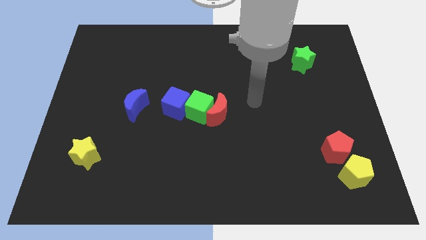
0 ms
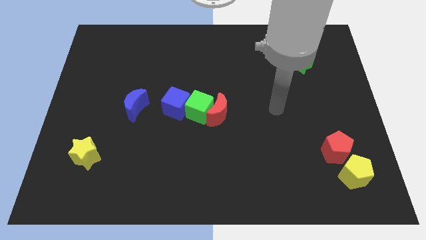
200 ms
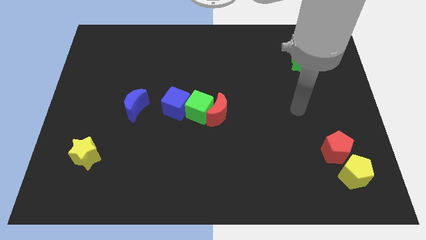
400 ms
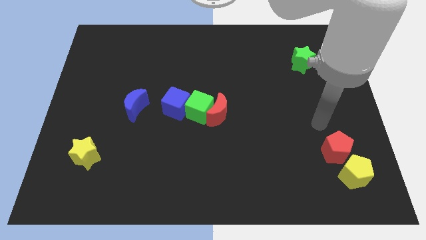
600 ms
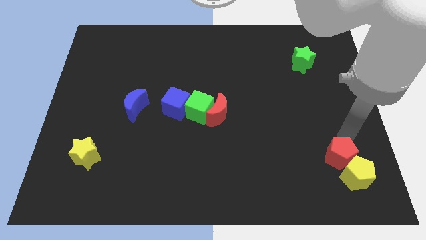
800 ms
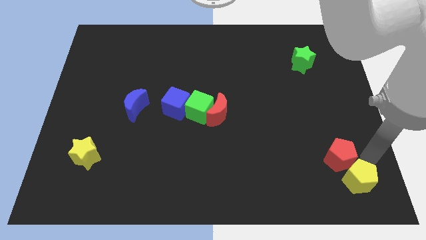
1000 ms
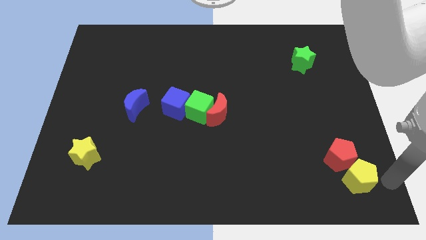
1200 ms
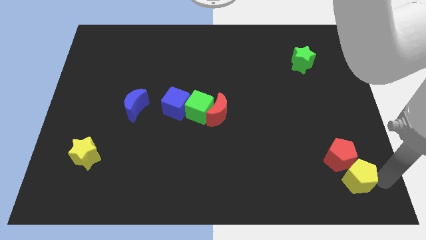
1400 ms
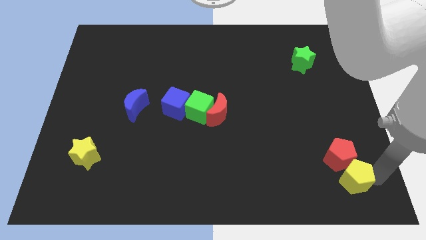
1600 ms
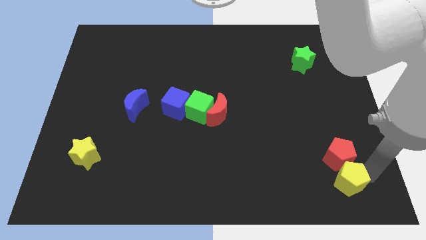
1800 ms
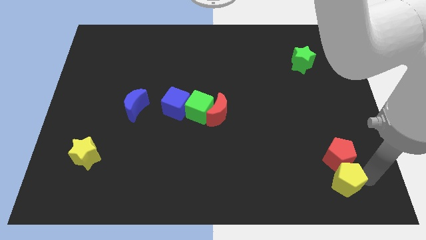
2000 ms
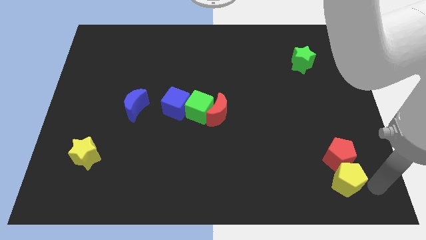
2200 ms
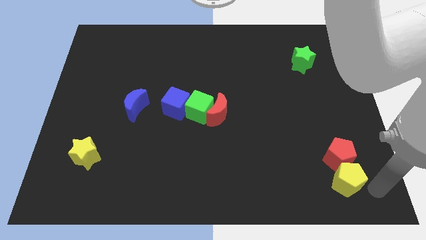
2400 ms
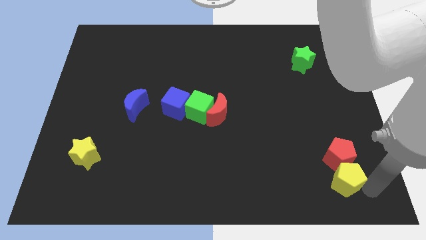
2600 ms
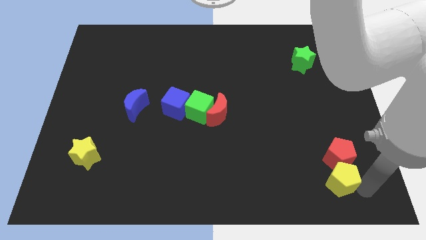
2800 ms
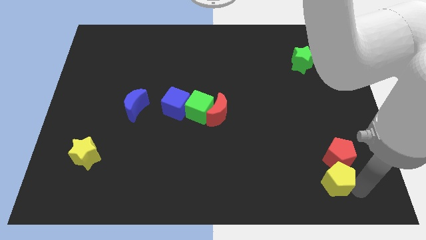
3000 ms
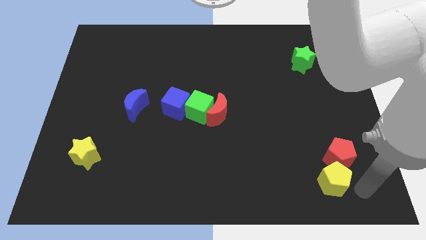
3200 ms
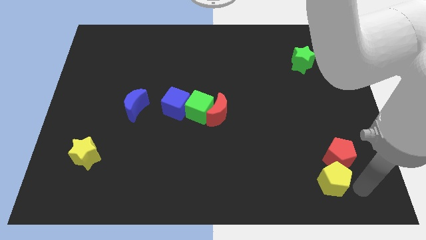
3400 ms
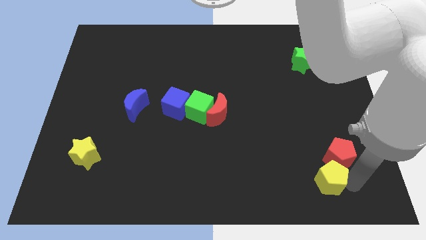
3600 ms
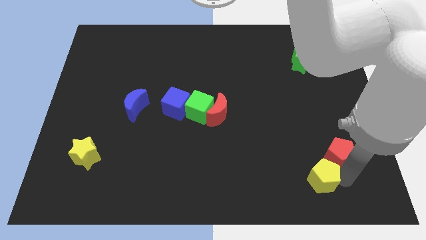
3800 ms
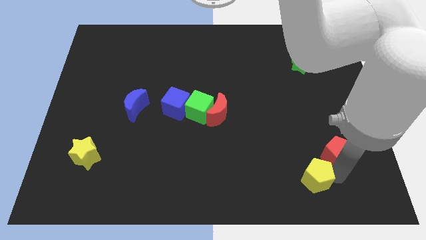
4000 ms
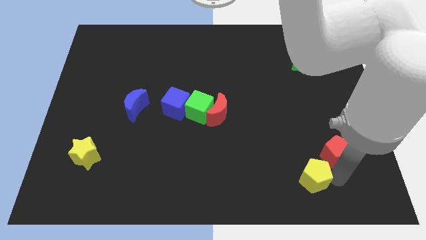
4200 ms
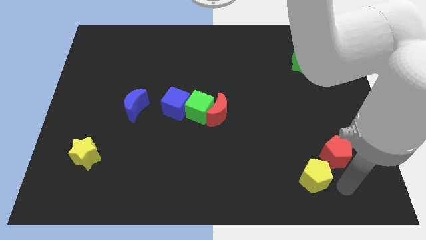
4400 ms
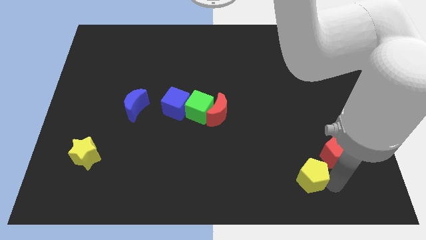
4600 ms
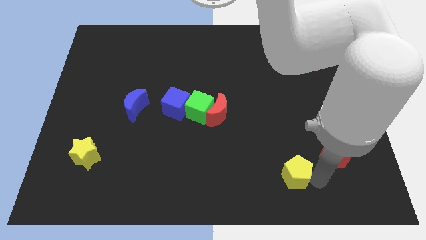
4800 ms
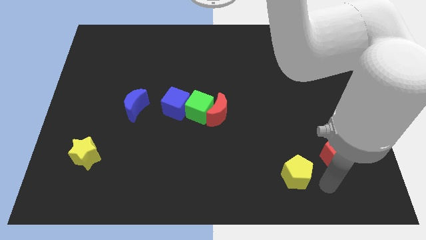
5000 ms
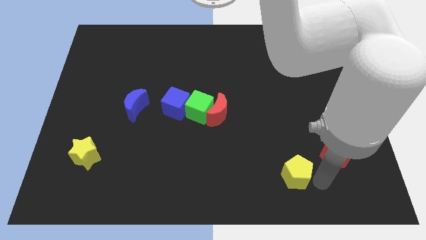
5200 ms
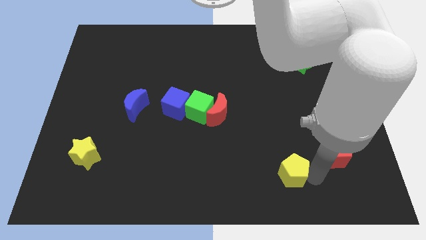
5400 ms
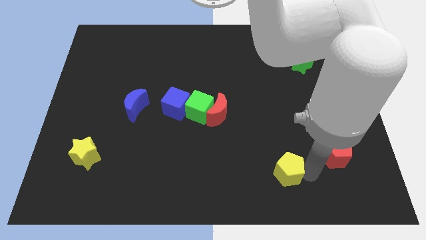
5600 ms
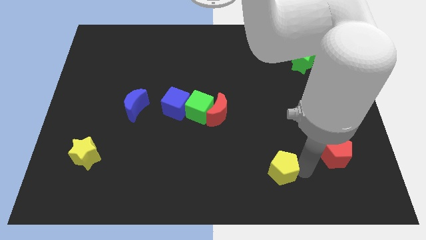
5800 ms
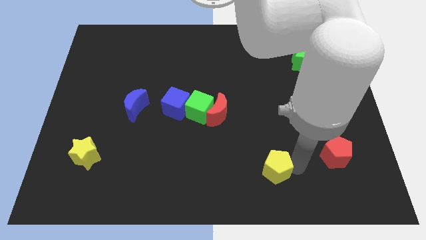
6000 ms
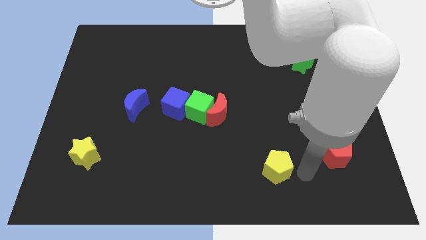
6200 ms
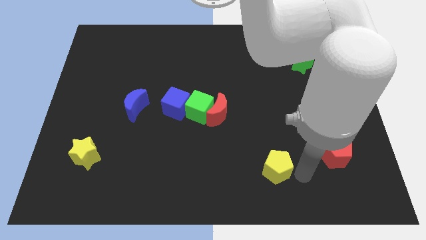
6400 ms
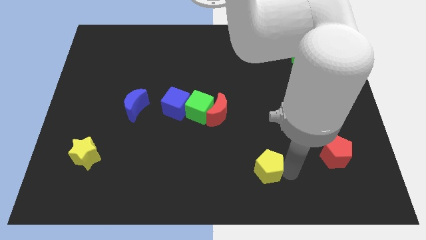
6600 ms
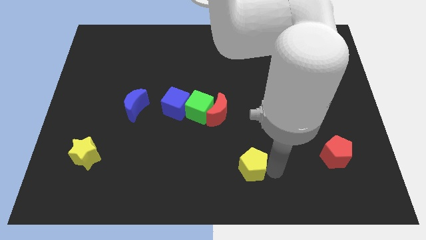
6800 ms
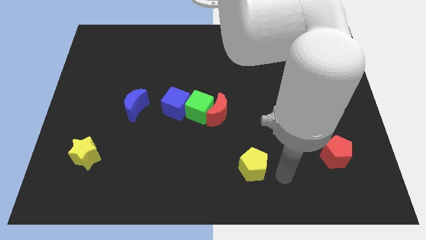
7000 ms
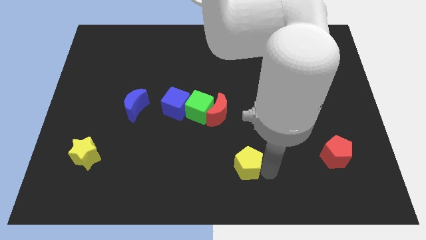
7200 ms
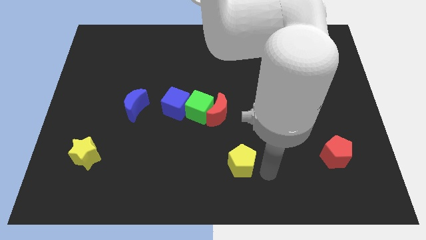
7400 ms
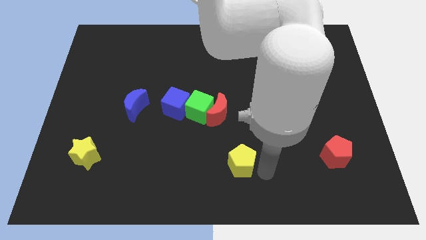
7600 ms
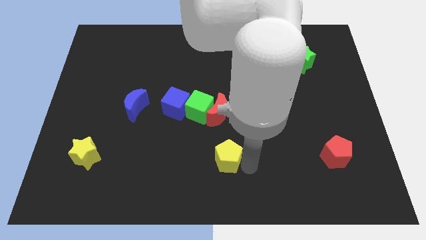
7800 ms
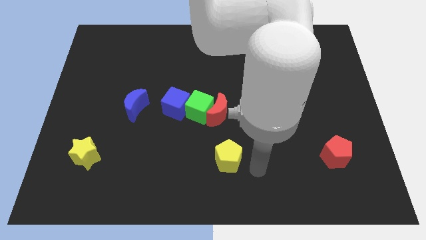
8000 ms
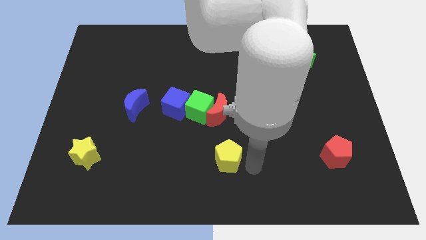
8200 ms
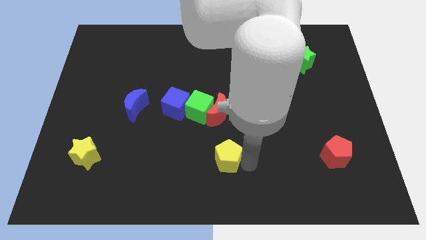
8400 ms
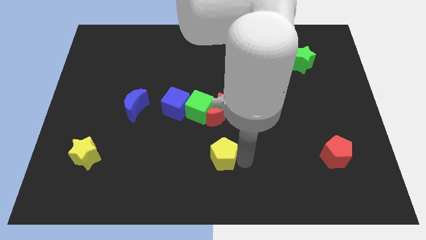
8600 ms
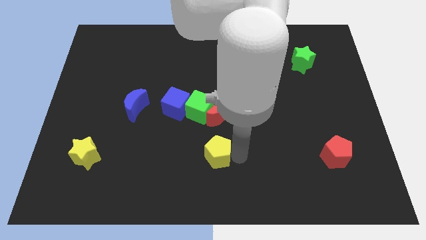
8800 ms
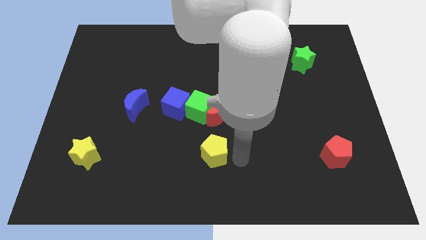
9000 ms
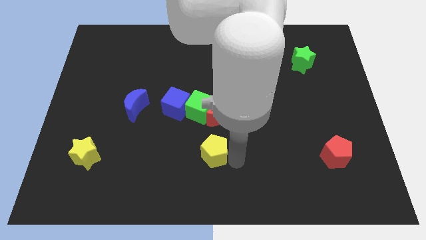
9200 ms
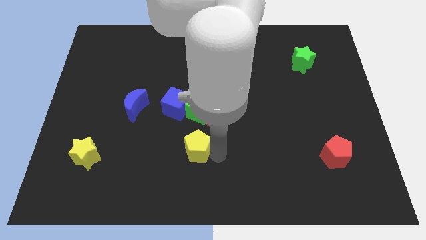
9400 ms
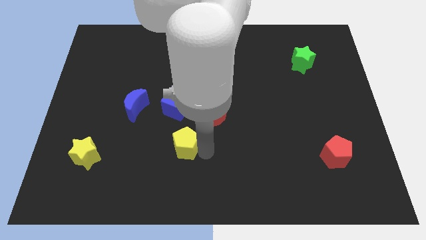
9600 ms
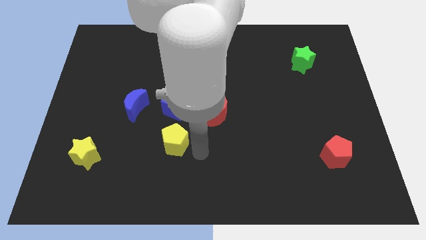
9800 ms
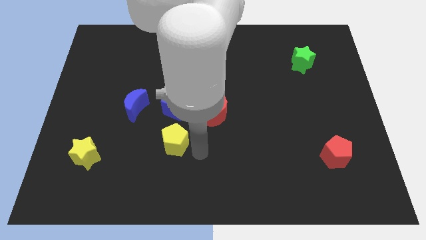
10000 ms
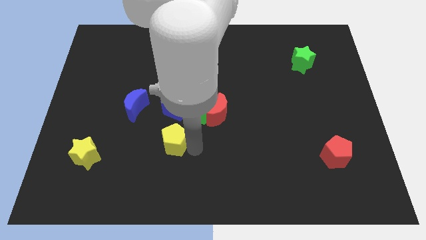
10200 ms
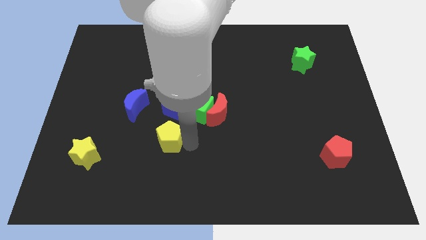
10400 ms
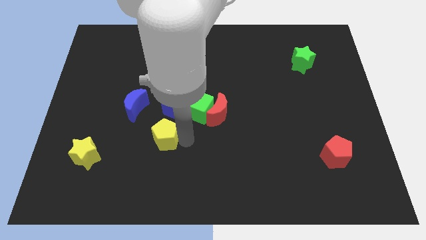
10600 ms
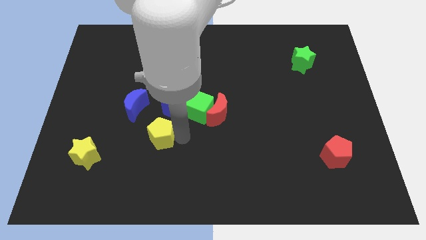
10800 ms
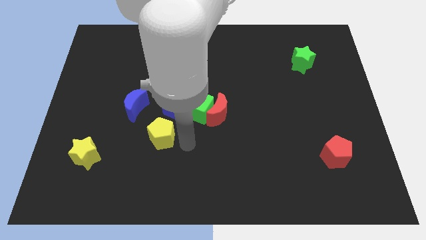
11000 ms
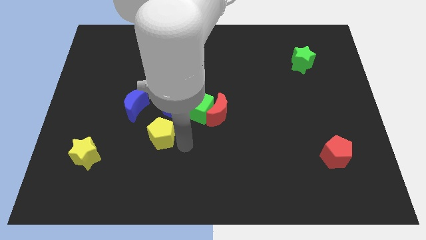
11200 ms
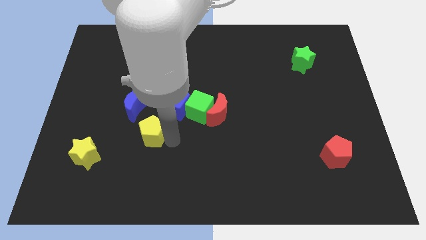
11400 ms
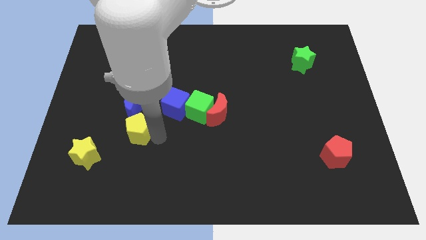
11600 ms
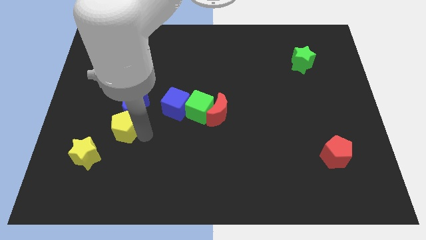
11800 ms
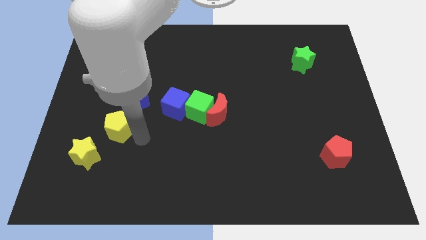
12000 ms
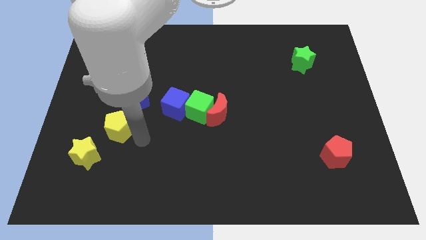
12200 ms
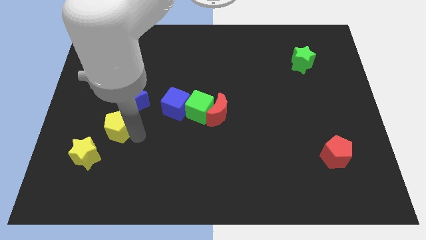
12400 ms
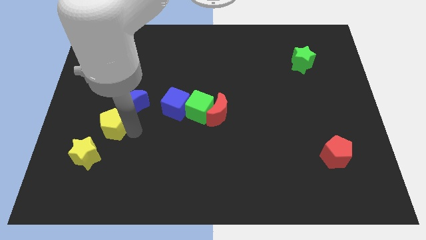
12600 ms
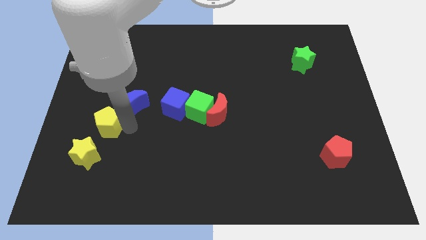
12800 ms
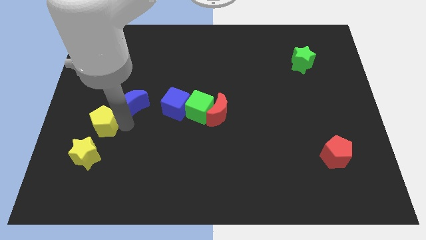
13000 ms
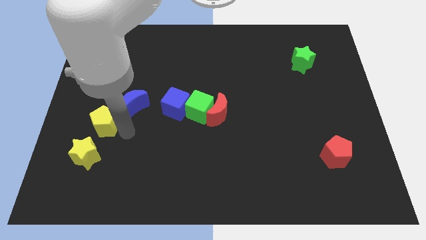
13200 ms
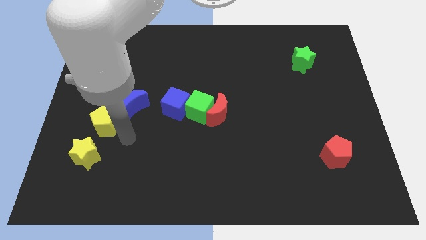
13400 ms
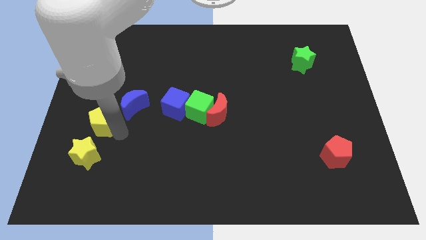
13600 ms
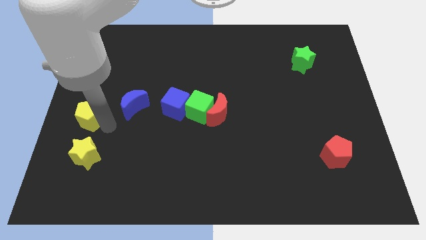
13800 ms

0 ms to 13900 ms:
move the yellow pentagon to the left side of the board
